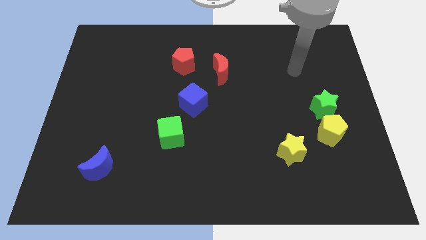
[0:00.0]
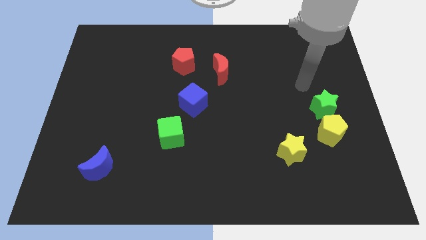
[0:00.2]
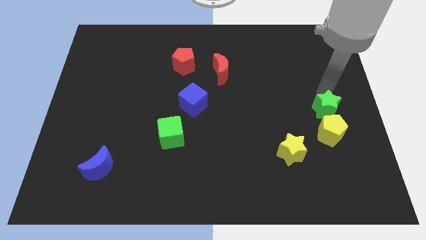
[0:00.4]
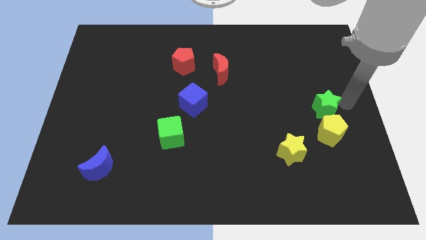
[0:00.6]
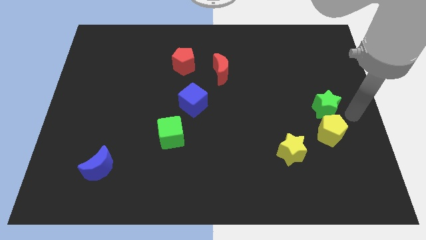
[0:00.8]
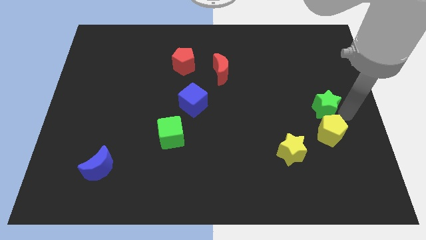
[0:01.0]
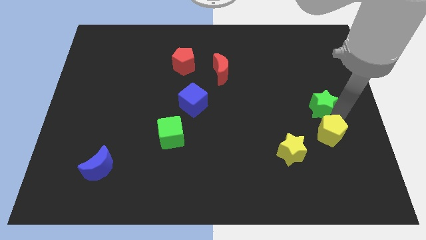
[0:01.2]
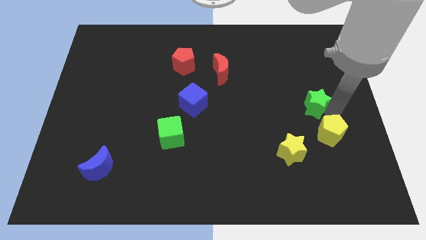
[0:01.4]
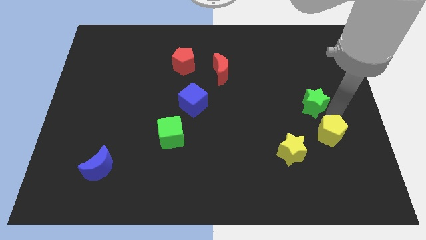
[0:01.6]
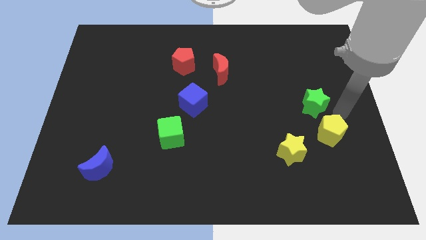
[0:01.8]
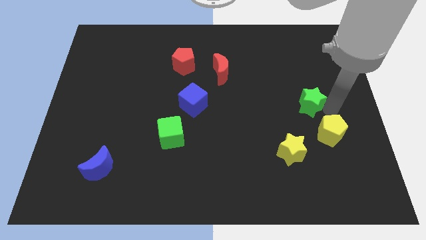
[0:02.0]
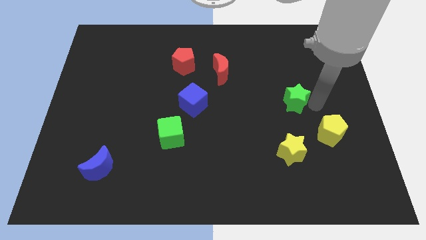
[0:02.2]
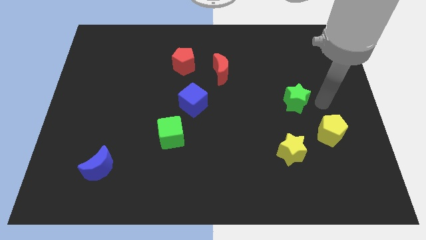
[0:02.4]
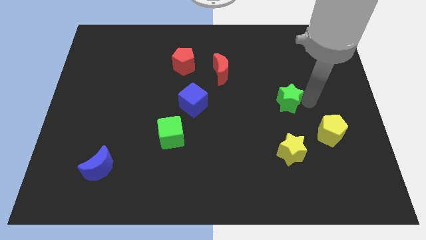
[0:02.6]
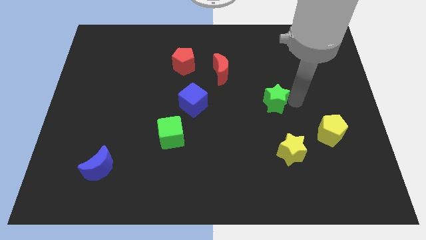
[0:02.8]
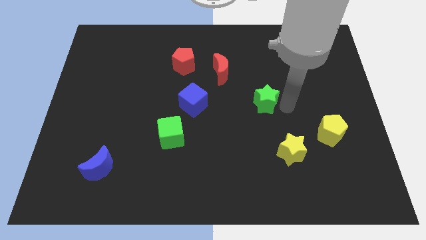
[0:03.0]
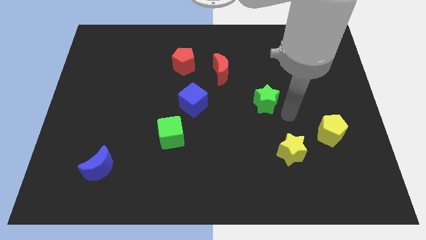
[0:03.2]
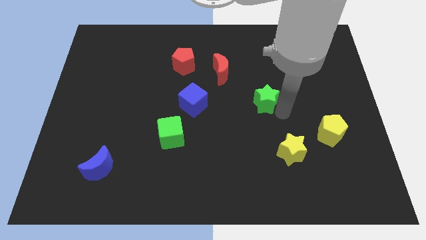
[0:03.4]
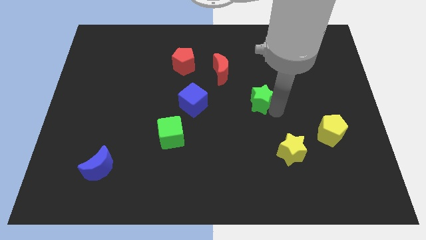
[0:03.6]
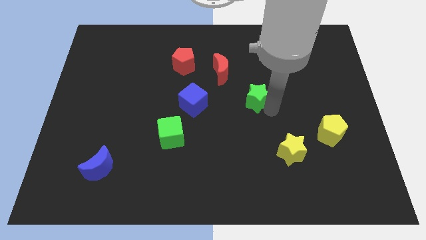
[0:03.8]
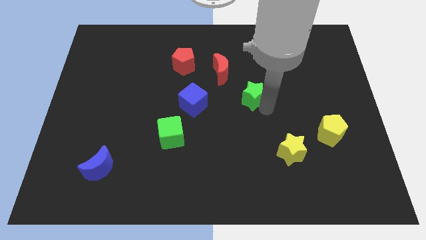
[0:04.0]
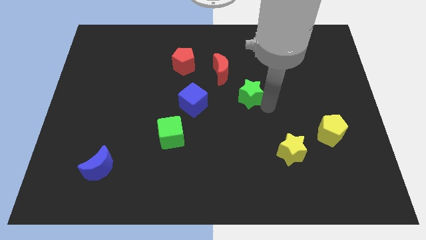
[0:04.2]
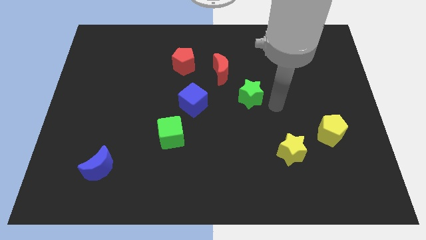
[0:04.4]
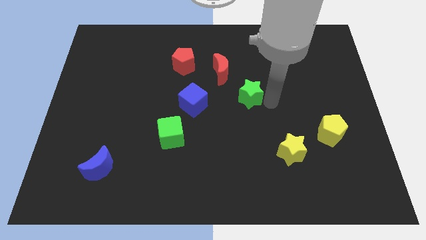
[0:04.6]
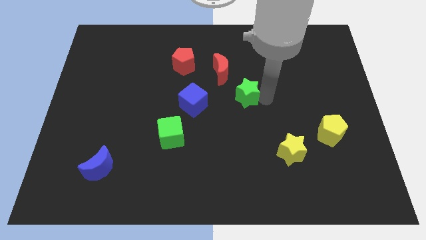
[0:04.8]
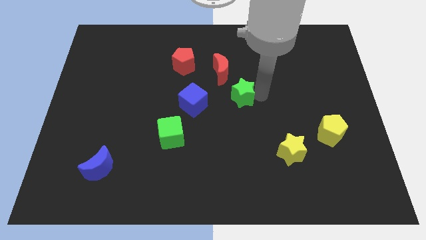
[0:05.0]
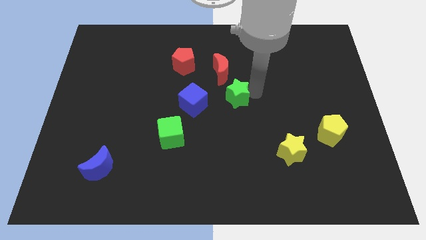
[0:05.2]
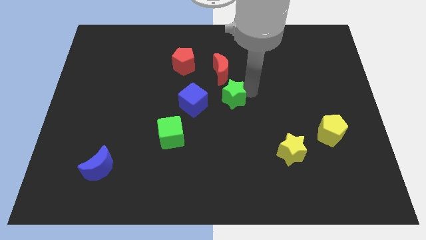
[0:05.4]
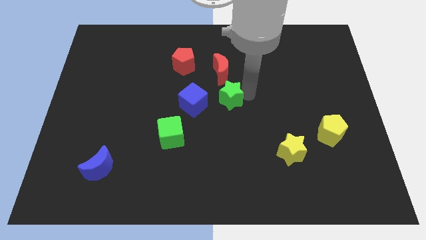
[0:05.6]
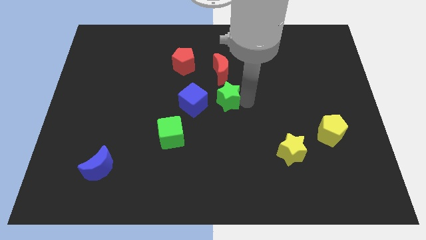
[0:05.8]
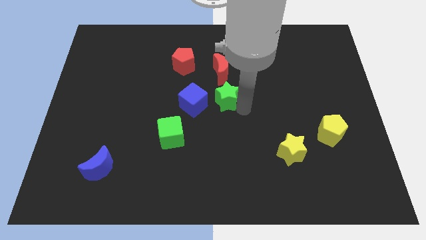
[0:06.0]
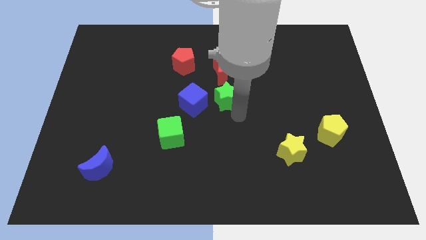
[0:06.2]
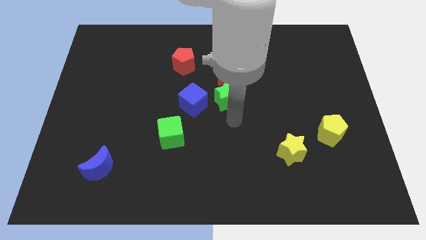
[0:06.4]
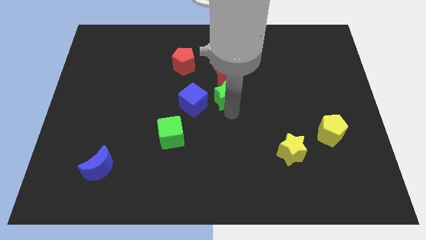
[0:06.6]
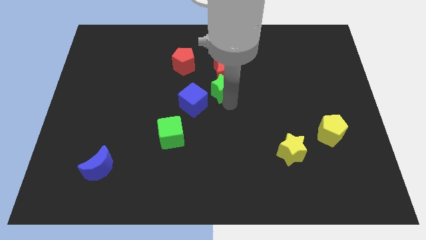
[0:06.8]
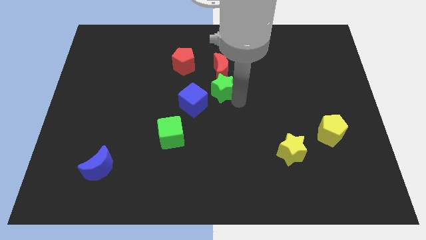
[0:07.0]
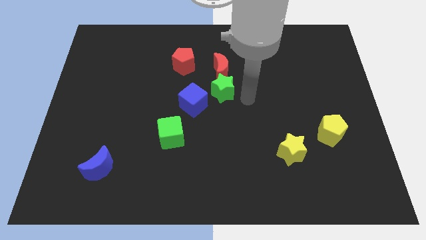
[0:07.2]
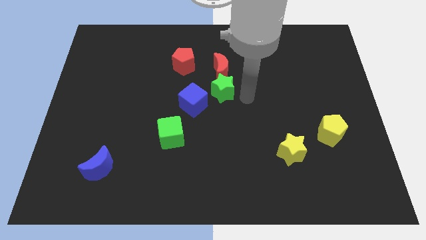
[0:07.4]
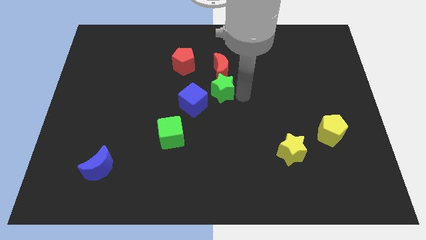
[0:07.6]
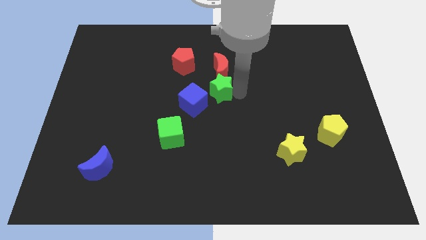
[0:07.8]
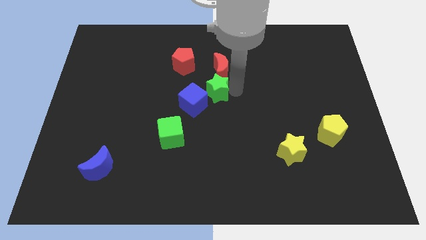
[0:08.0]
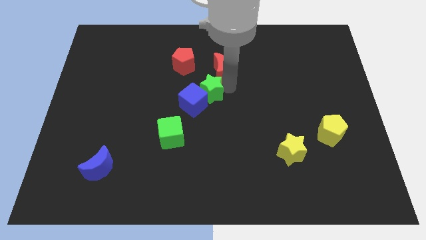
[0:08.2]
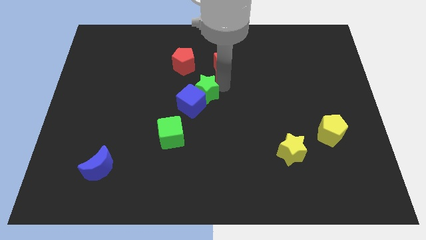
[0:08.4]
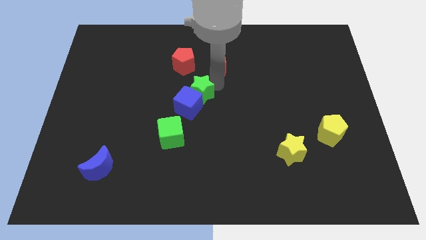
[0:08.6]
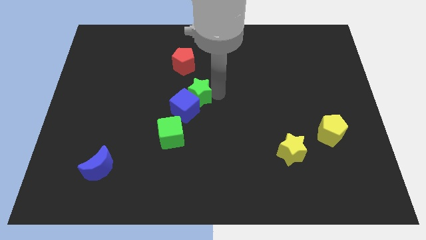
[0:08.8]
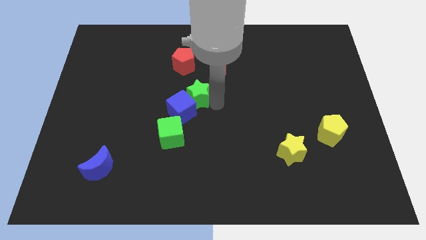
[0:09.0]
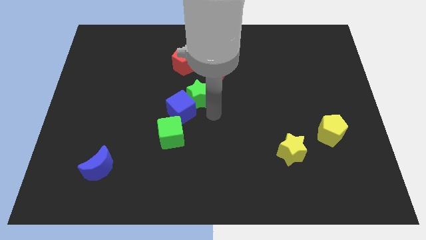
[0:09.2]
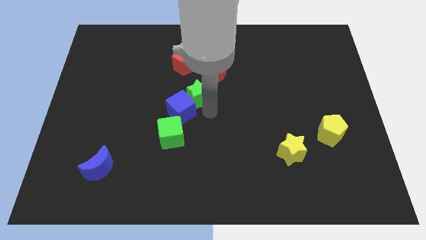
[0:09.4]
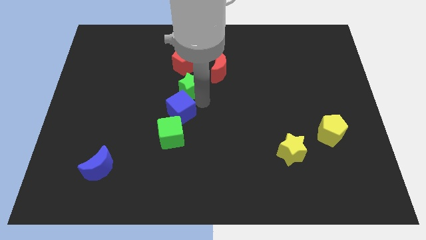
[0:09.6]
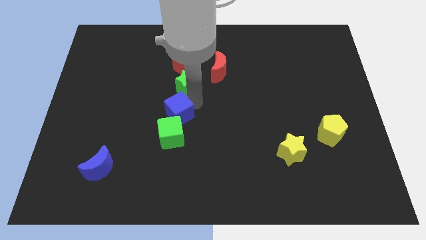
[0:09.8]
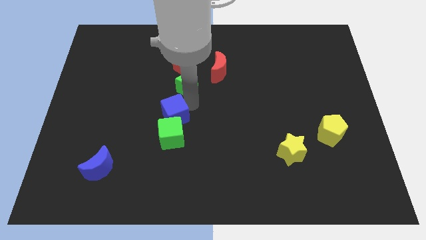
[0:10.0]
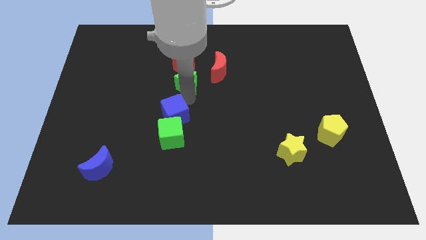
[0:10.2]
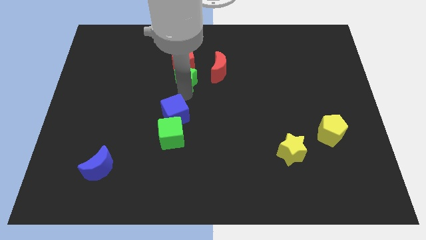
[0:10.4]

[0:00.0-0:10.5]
move the green star to the red pentagon

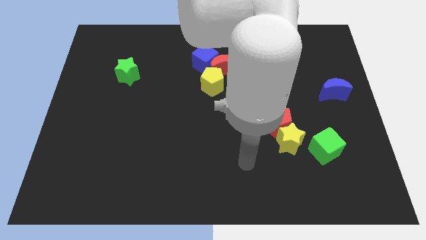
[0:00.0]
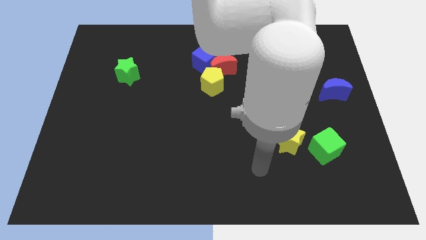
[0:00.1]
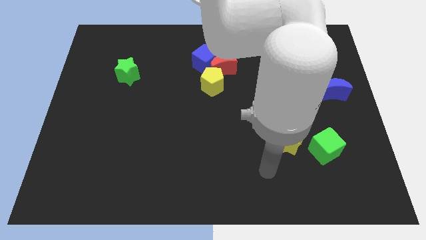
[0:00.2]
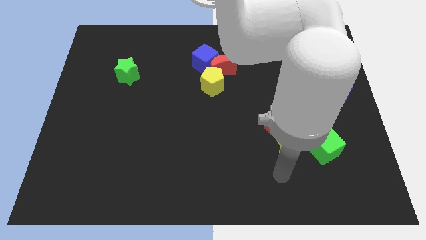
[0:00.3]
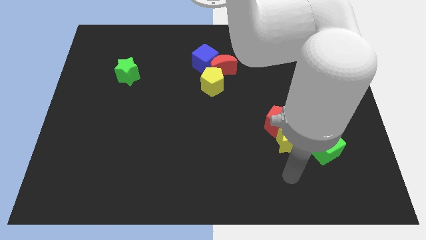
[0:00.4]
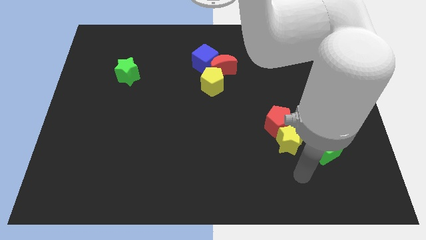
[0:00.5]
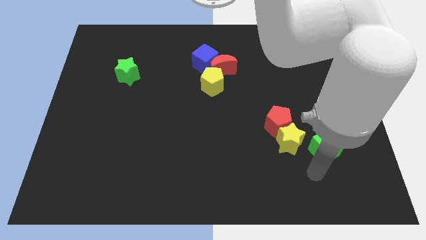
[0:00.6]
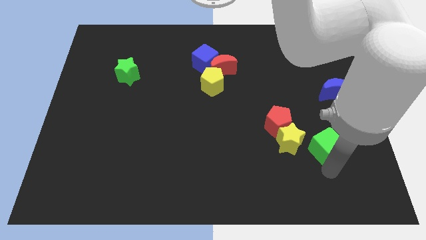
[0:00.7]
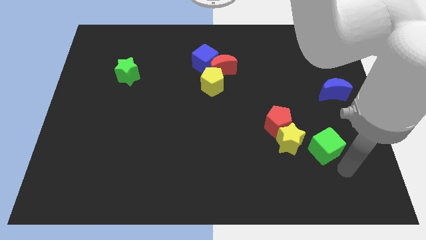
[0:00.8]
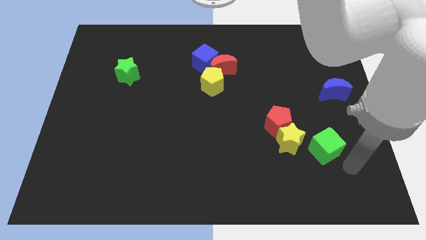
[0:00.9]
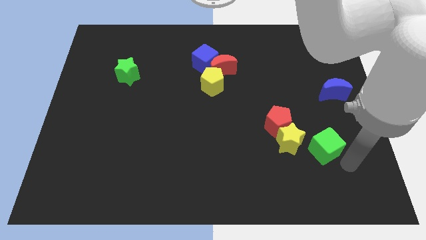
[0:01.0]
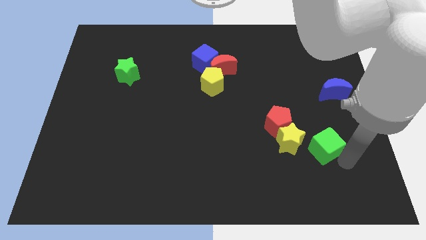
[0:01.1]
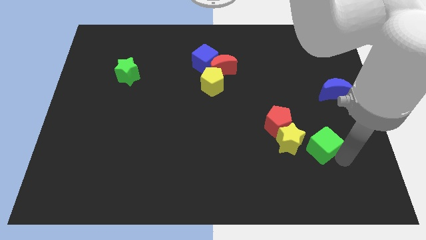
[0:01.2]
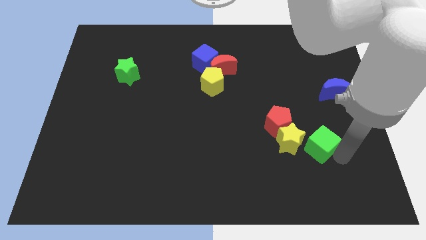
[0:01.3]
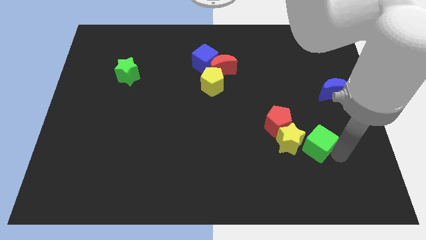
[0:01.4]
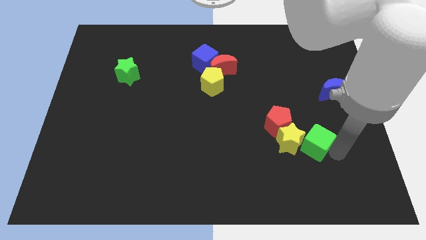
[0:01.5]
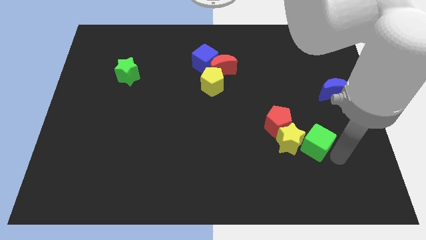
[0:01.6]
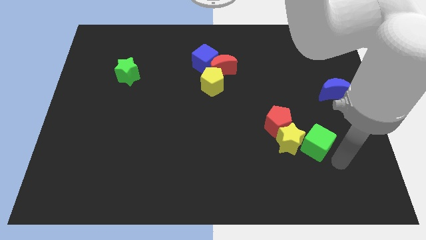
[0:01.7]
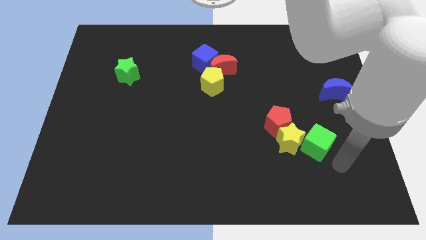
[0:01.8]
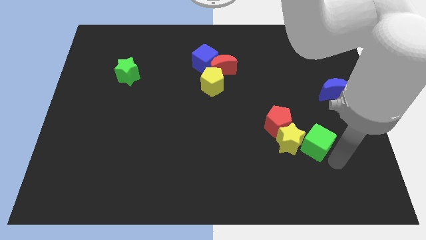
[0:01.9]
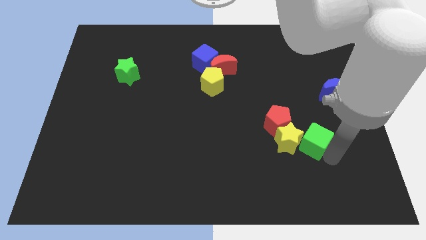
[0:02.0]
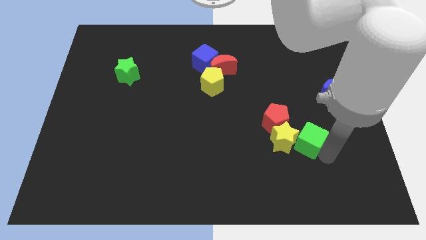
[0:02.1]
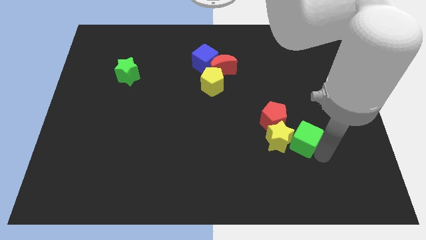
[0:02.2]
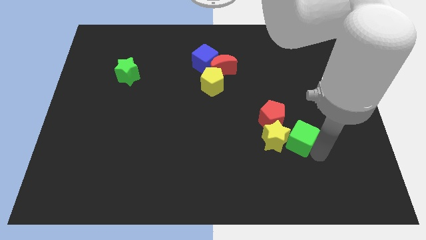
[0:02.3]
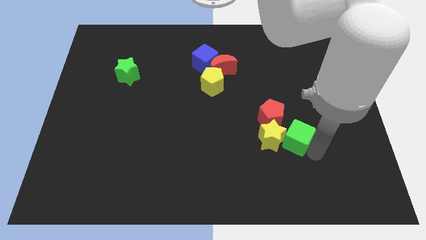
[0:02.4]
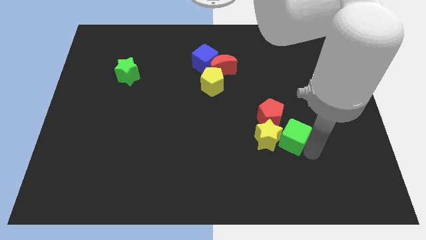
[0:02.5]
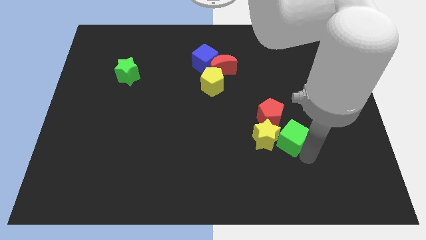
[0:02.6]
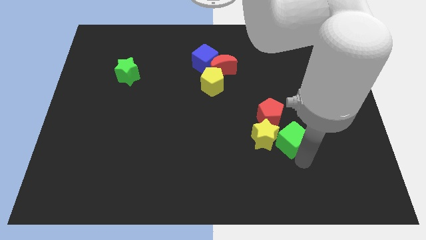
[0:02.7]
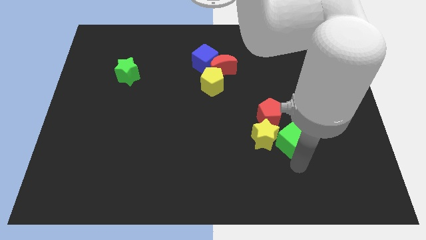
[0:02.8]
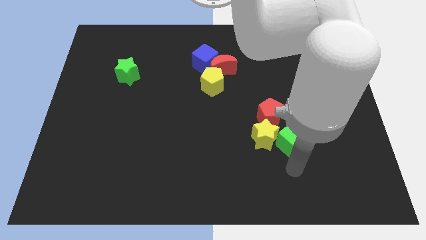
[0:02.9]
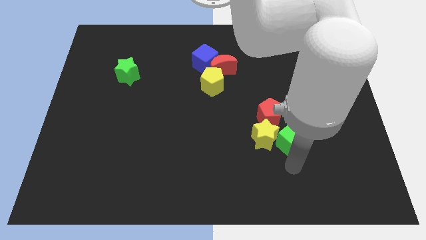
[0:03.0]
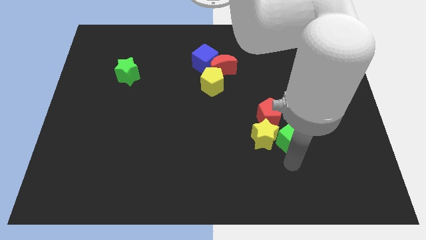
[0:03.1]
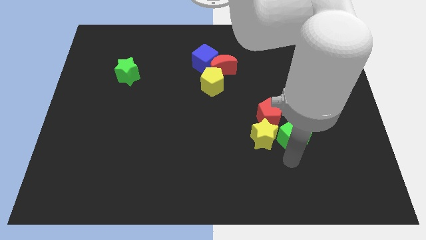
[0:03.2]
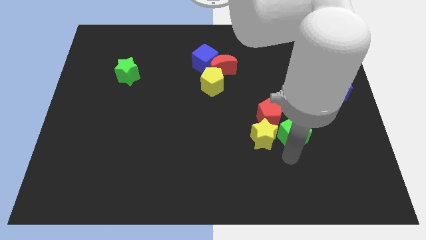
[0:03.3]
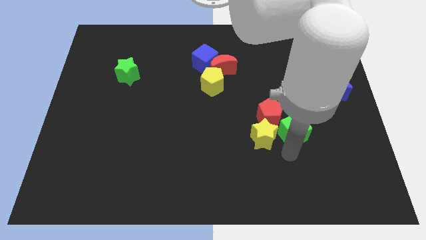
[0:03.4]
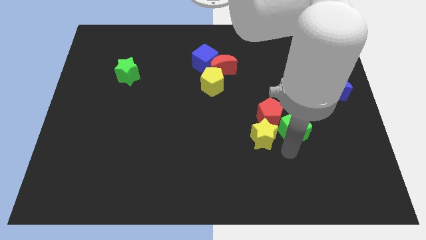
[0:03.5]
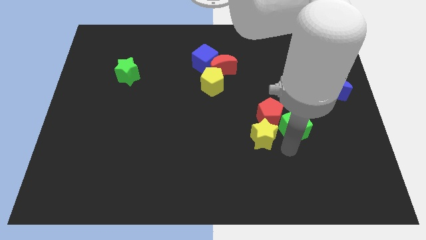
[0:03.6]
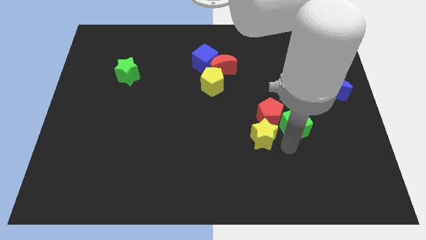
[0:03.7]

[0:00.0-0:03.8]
slide the green cube close to the red pentagon
